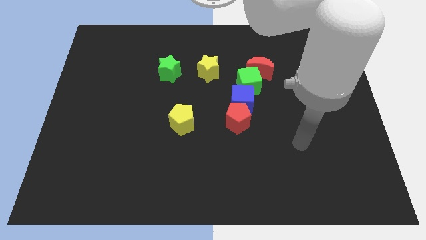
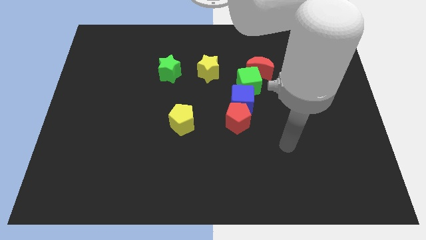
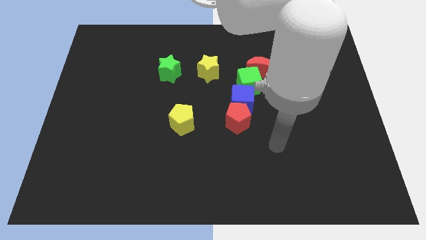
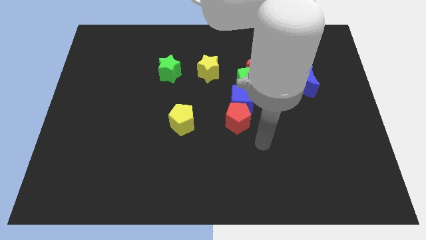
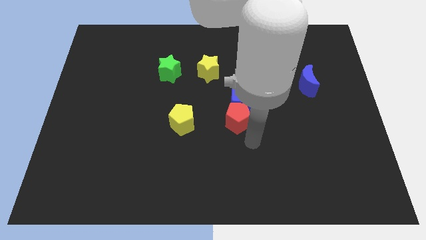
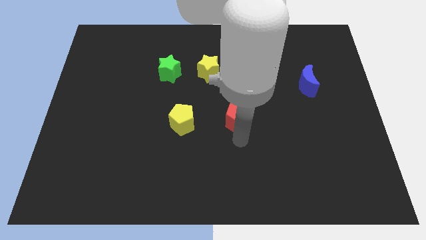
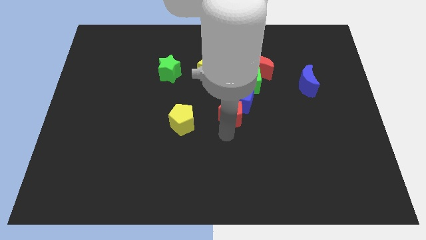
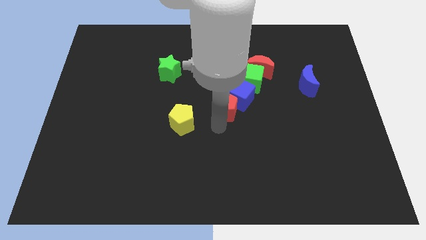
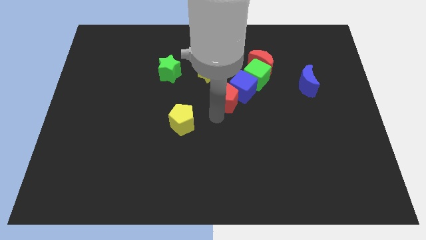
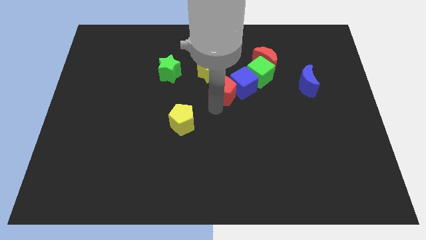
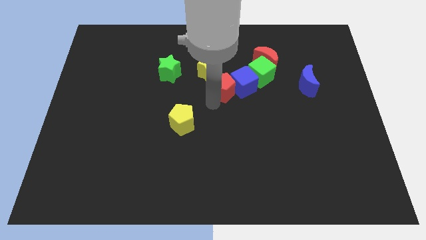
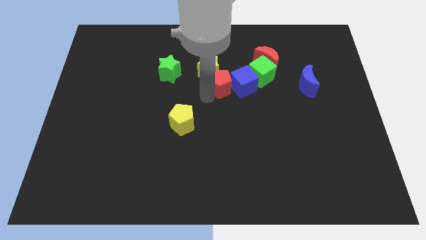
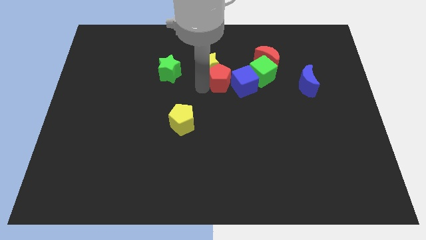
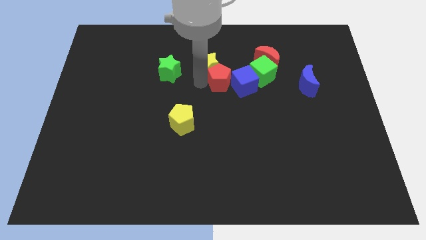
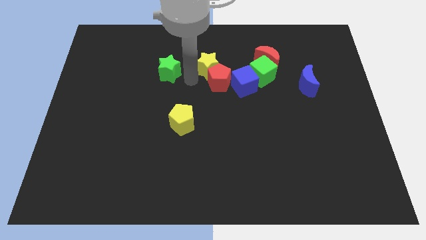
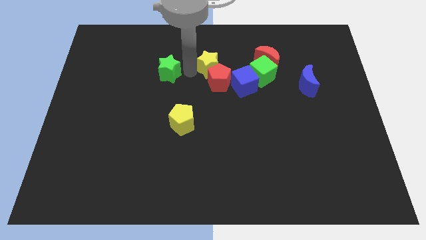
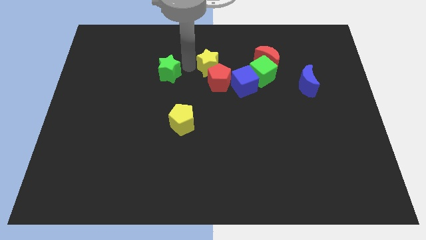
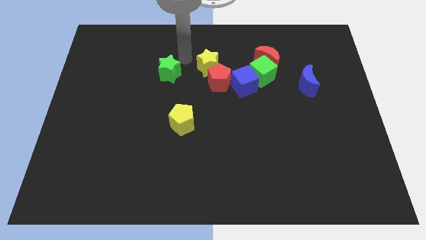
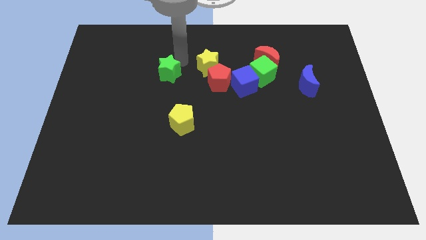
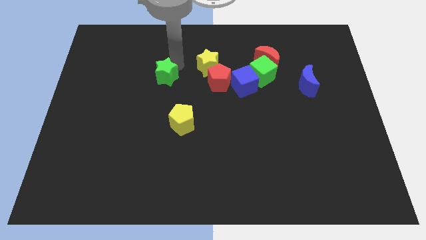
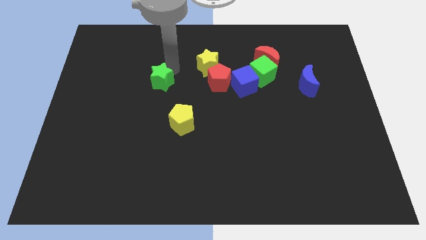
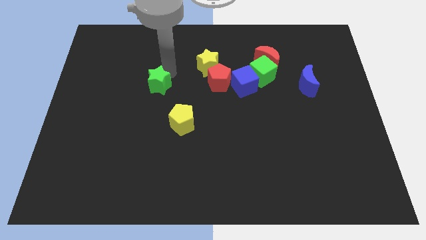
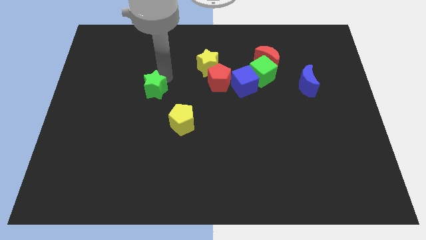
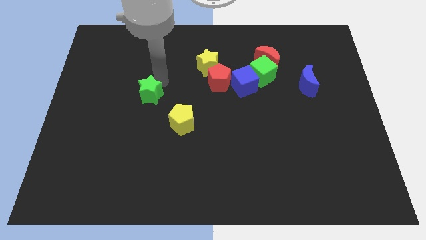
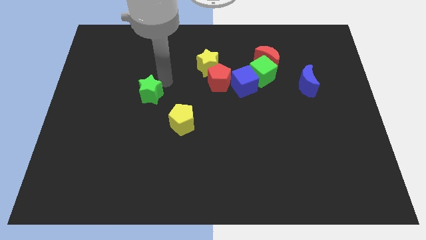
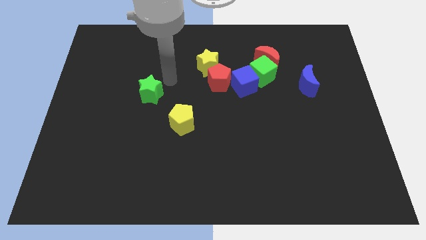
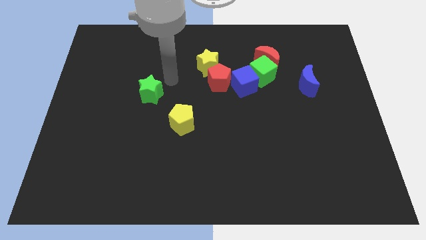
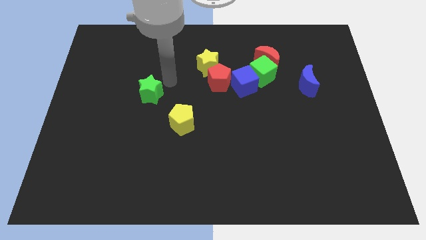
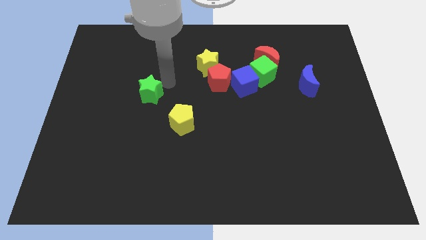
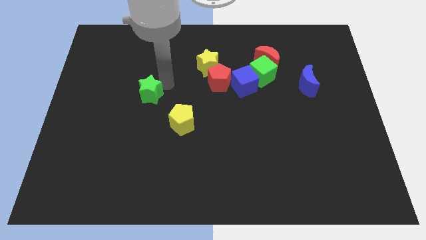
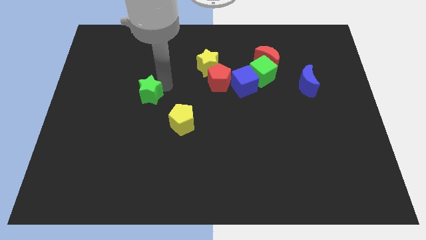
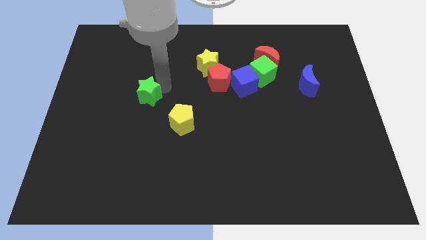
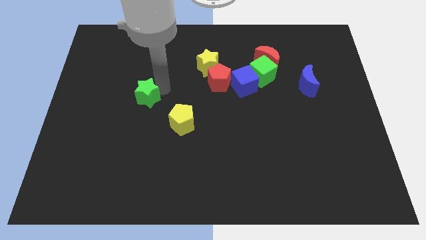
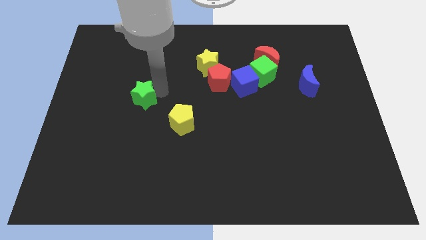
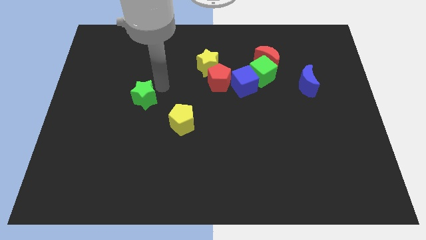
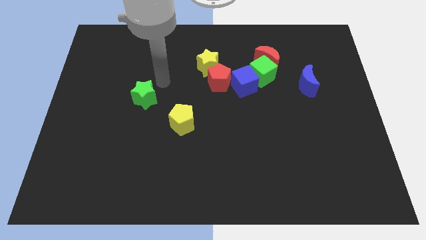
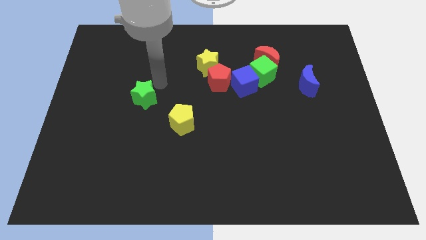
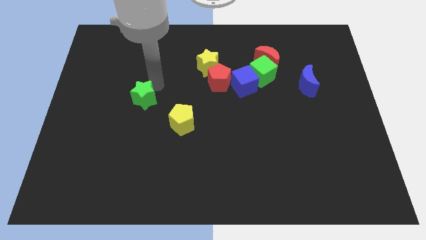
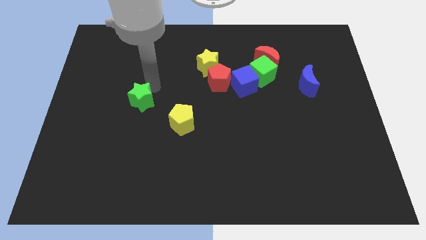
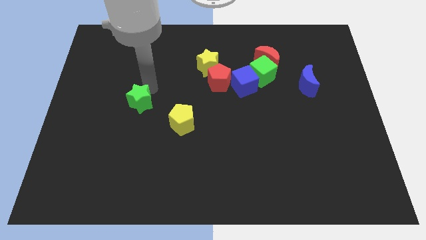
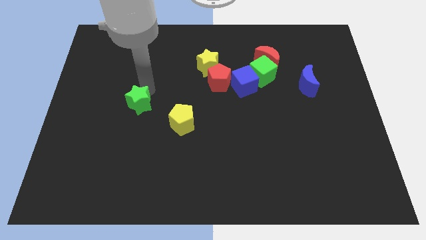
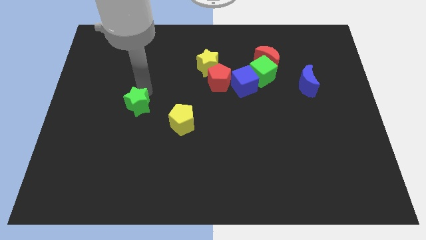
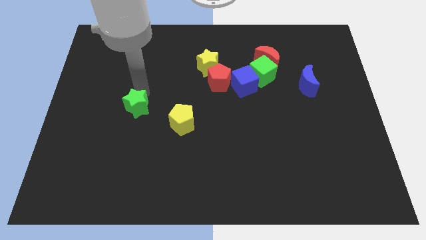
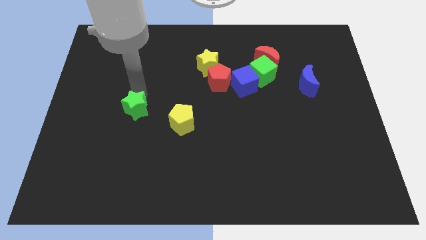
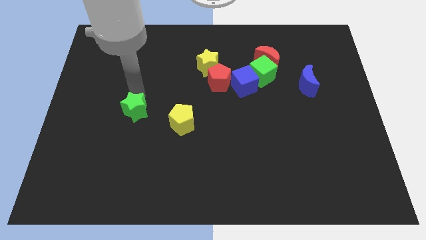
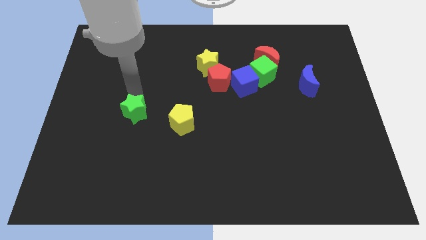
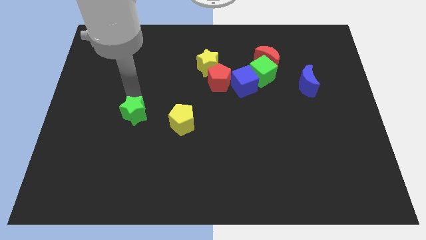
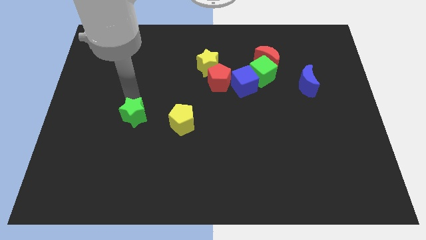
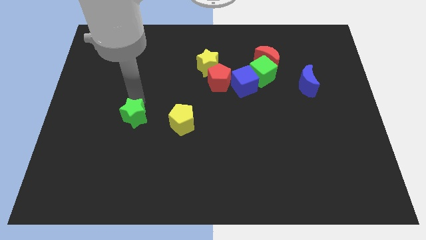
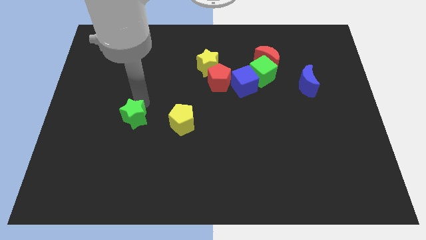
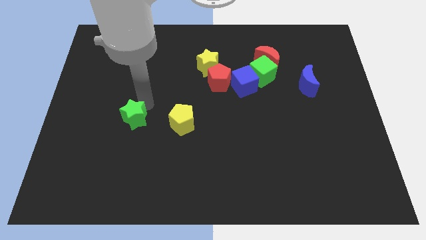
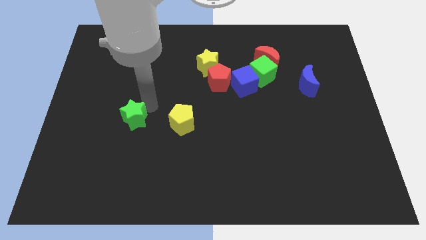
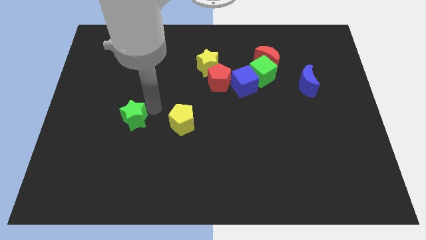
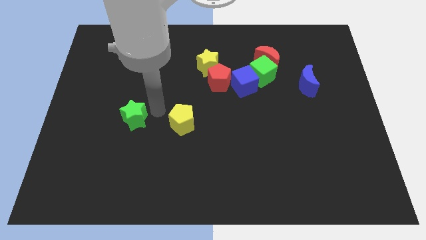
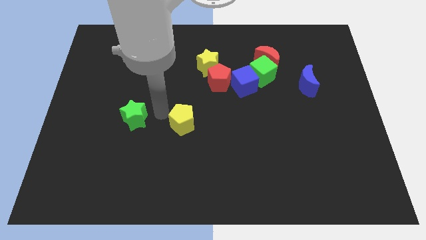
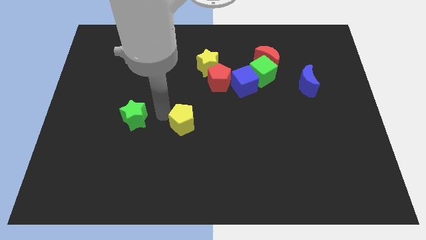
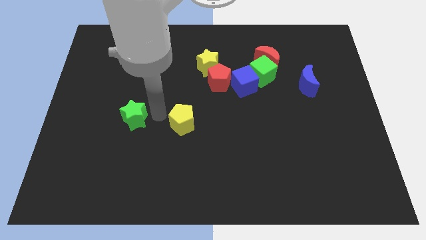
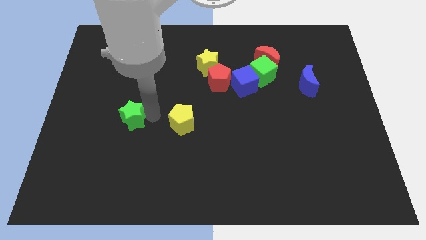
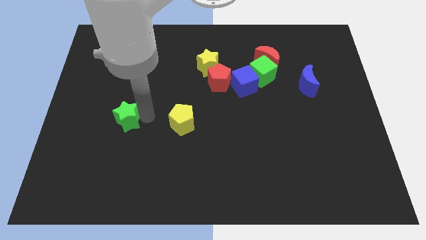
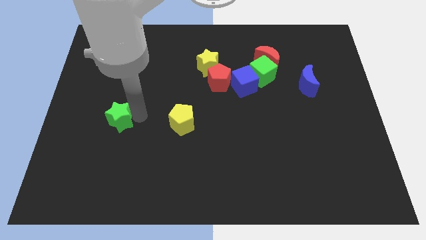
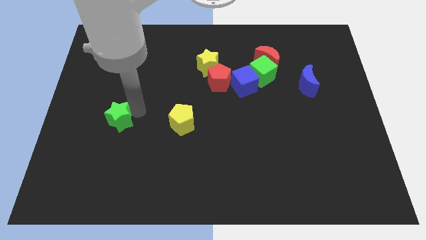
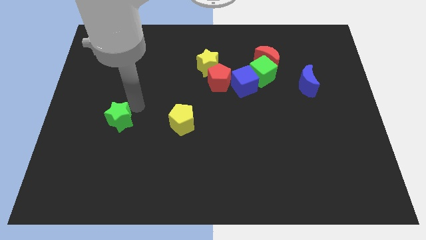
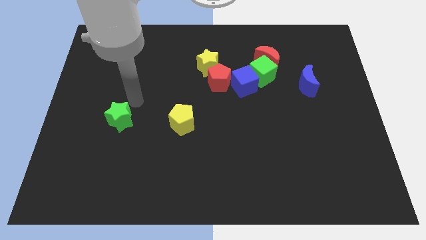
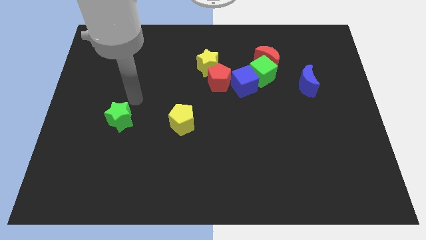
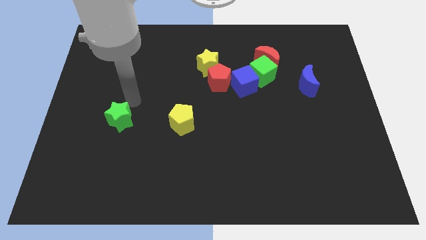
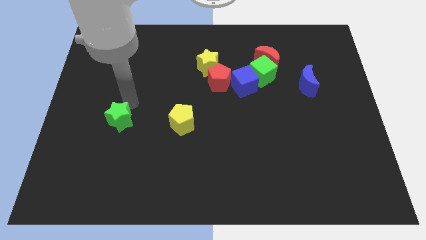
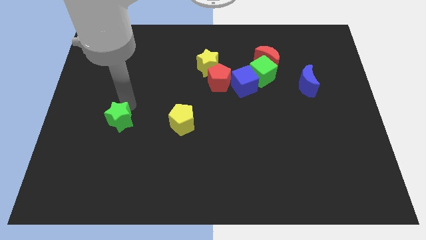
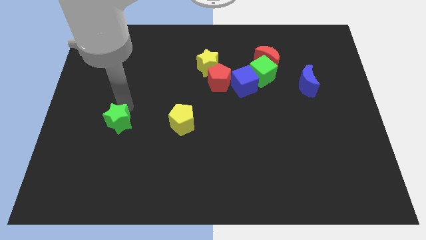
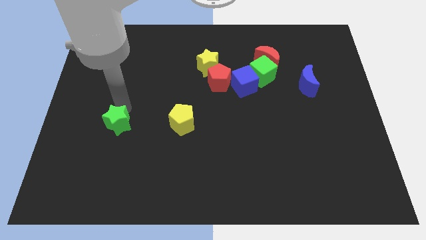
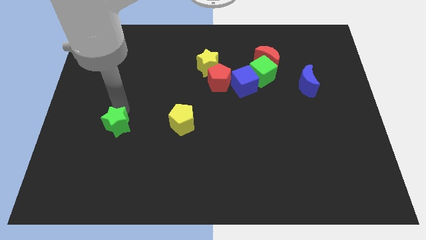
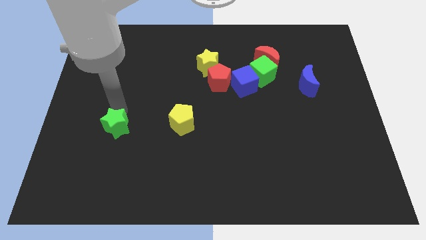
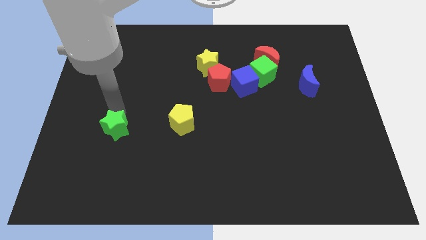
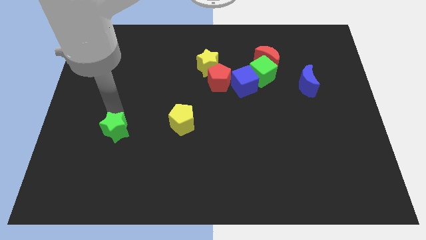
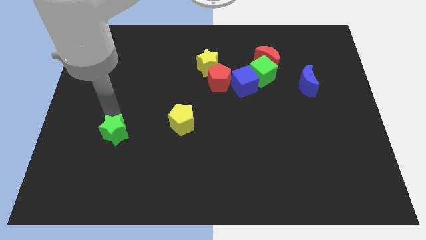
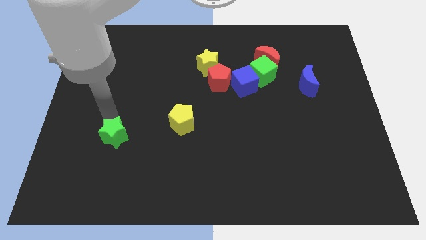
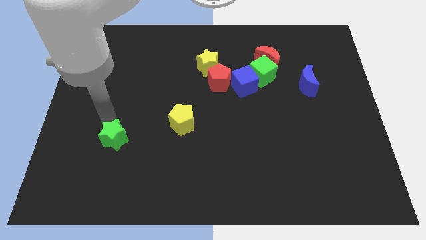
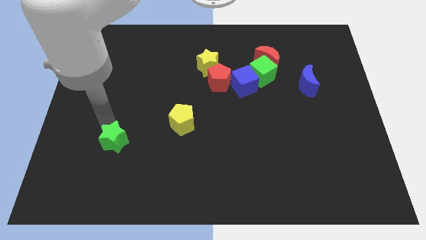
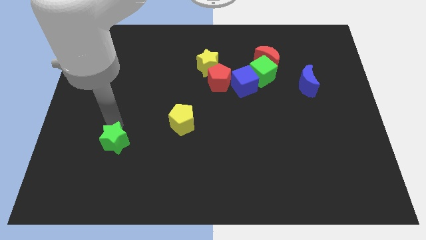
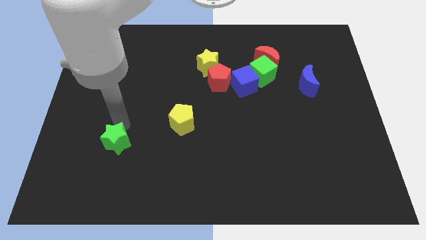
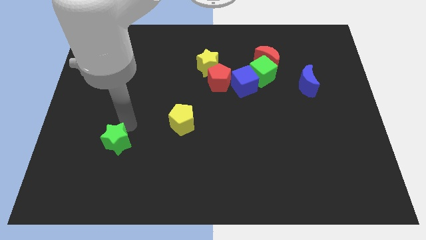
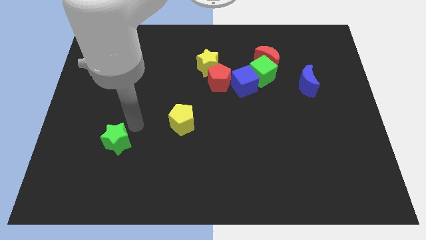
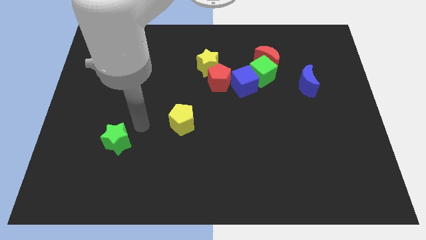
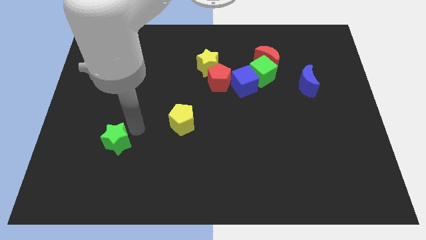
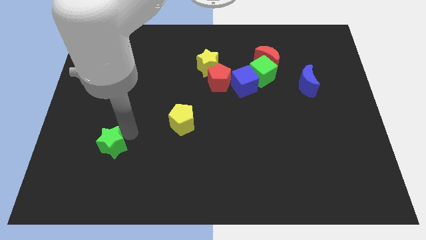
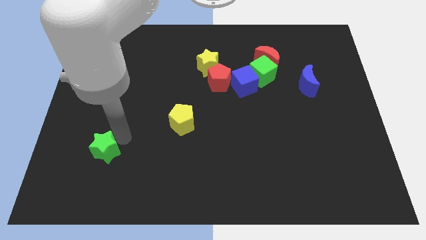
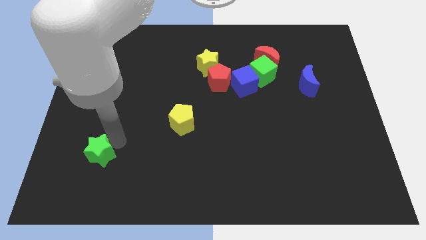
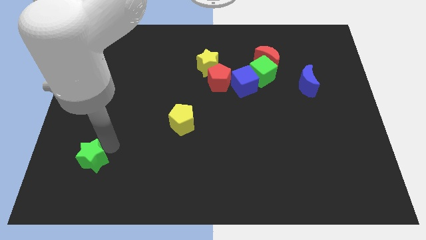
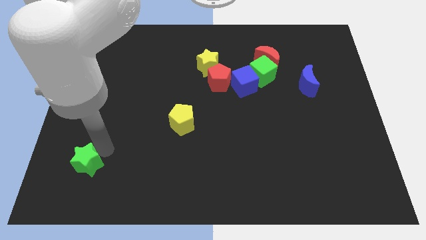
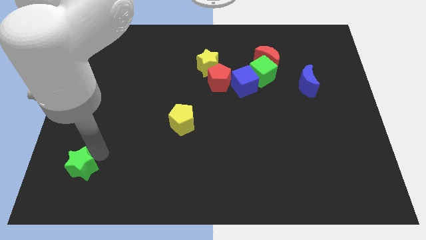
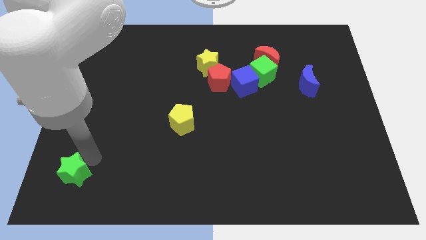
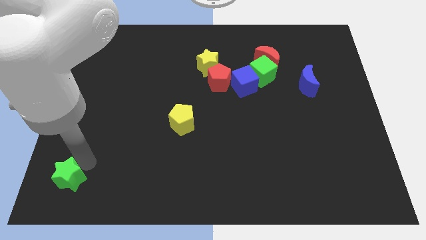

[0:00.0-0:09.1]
put the green star to the lower left corner
